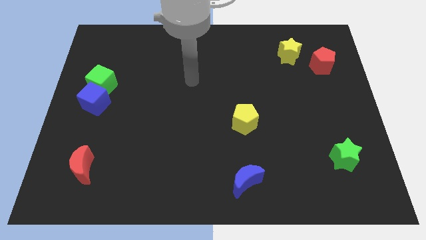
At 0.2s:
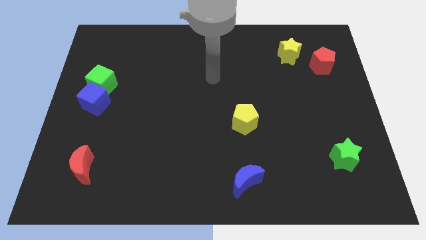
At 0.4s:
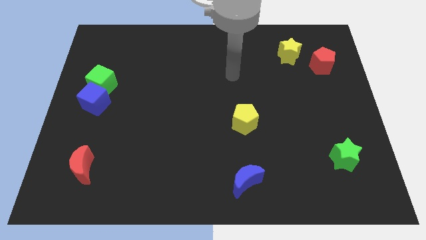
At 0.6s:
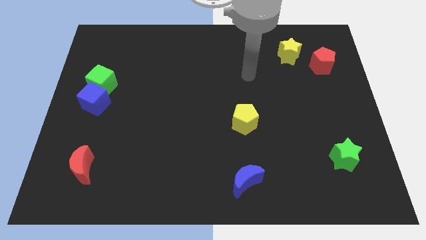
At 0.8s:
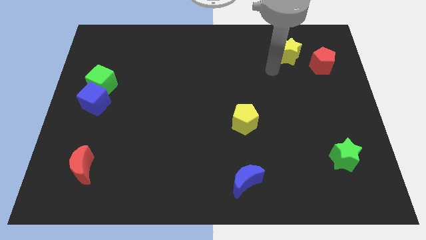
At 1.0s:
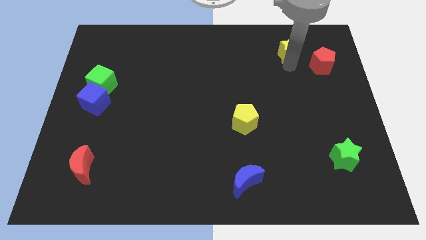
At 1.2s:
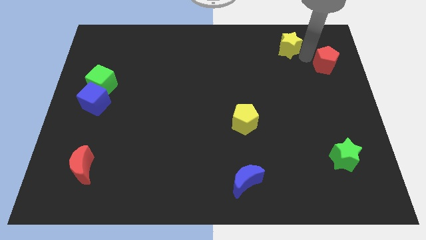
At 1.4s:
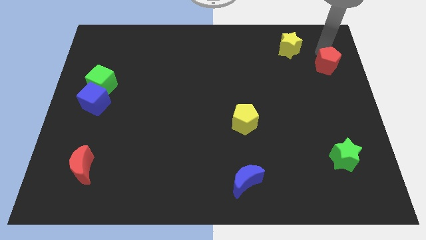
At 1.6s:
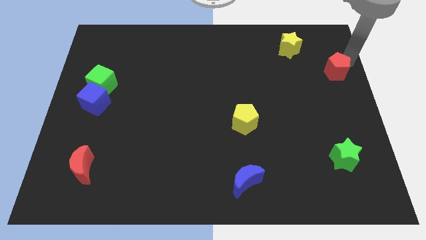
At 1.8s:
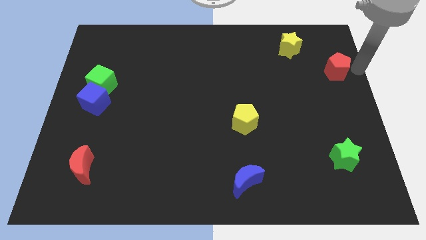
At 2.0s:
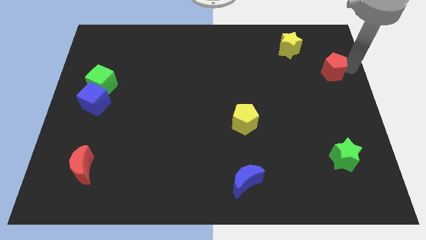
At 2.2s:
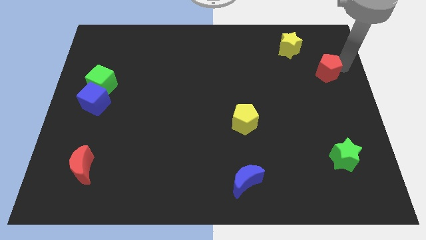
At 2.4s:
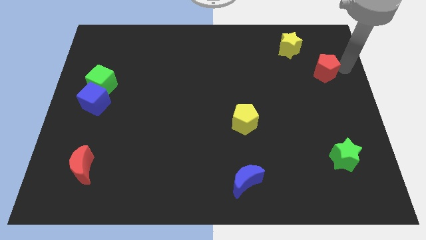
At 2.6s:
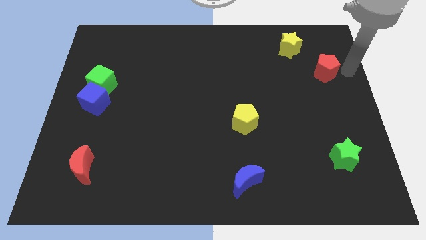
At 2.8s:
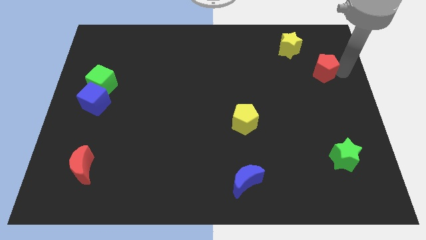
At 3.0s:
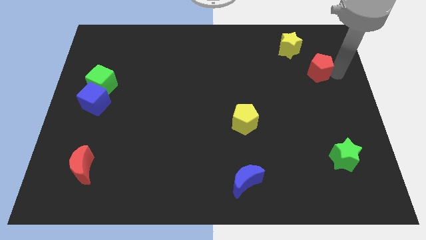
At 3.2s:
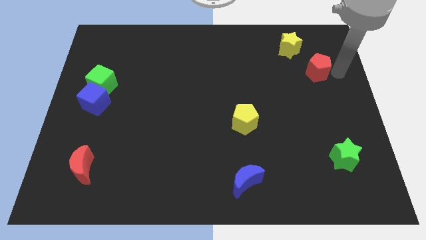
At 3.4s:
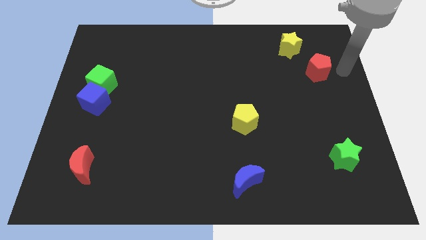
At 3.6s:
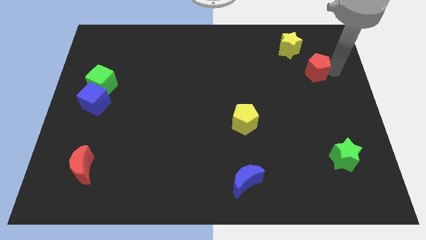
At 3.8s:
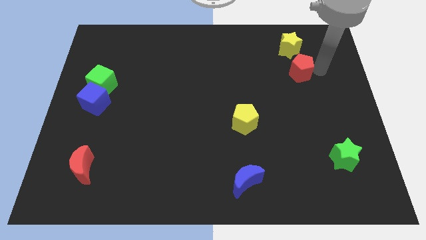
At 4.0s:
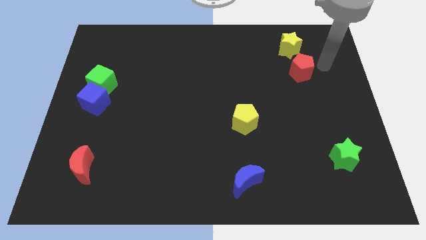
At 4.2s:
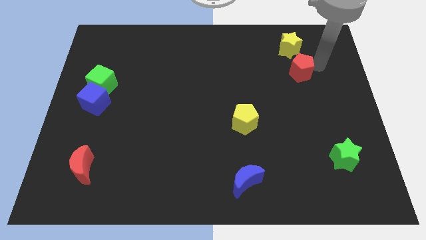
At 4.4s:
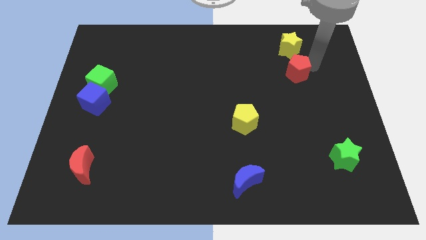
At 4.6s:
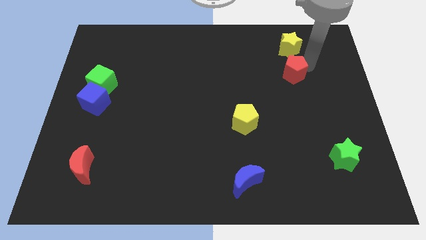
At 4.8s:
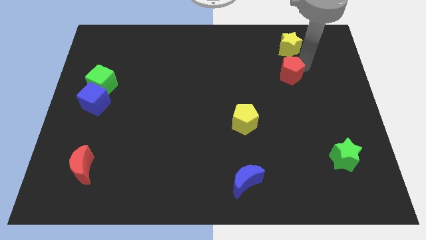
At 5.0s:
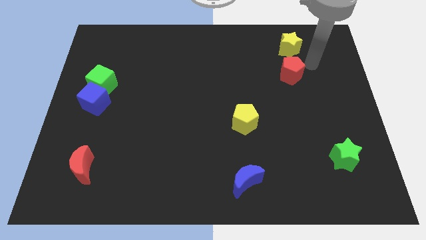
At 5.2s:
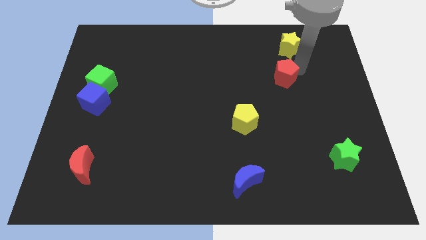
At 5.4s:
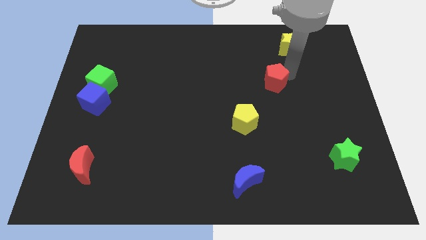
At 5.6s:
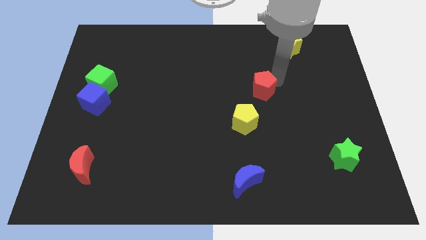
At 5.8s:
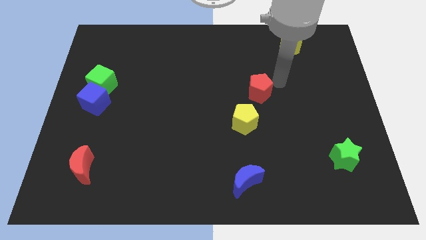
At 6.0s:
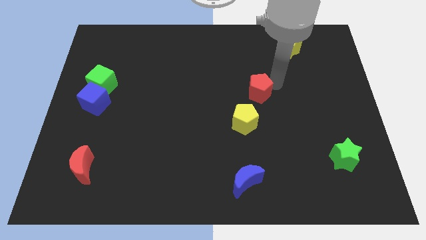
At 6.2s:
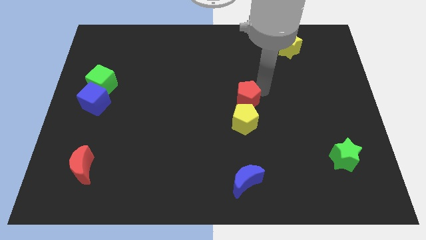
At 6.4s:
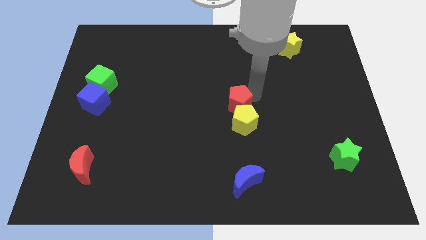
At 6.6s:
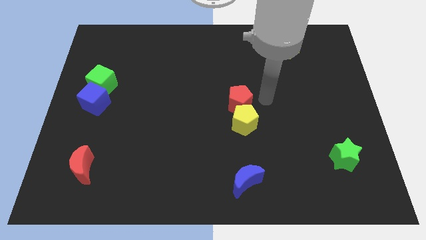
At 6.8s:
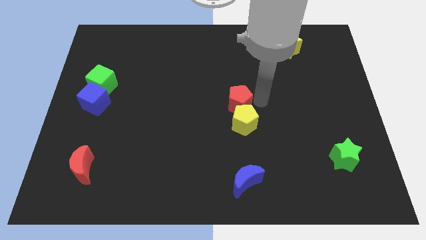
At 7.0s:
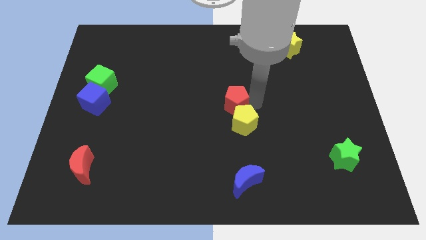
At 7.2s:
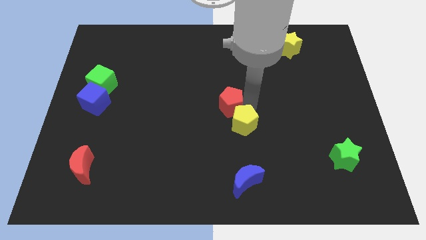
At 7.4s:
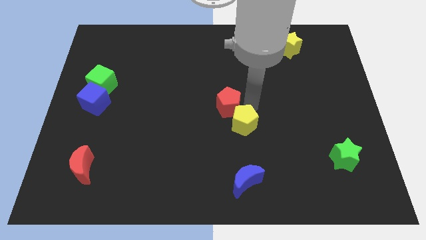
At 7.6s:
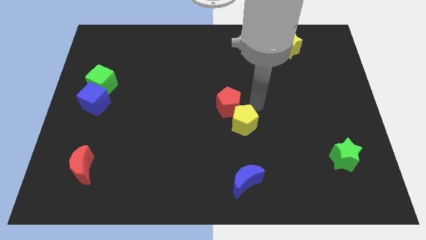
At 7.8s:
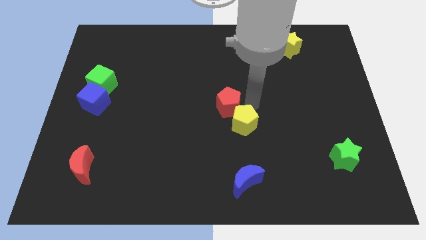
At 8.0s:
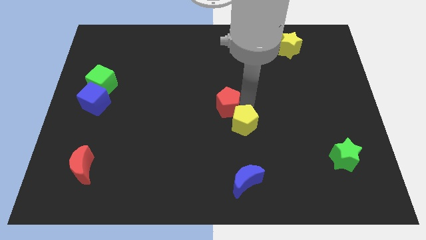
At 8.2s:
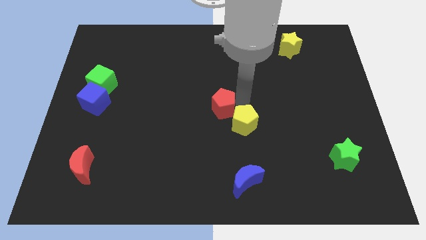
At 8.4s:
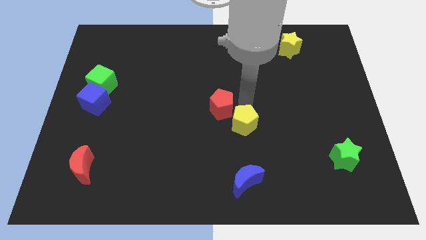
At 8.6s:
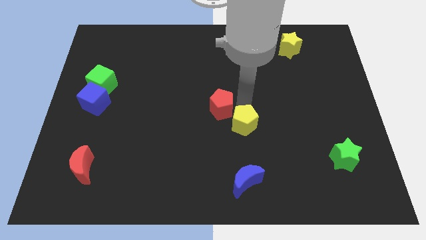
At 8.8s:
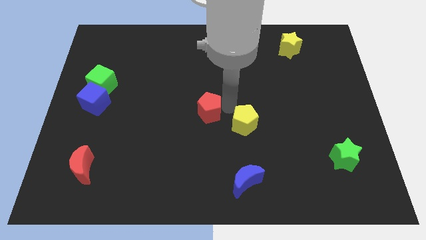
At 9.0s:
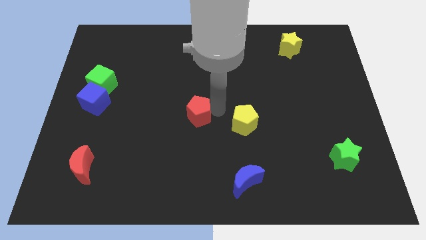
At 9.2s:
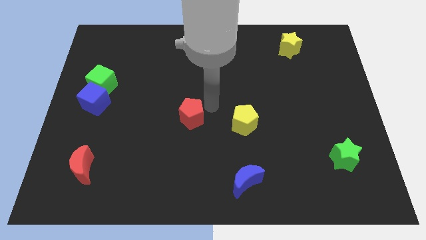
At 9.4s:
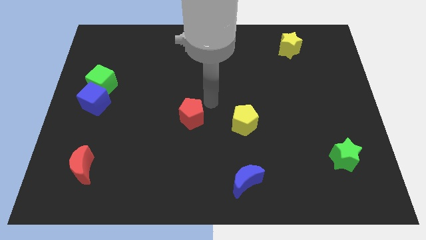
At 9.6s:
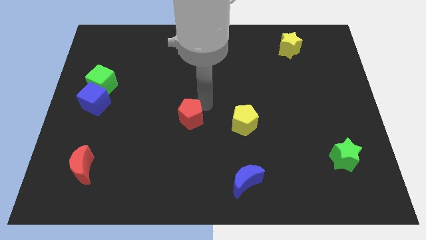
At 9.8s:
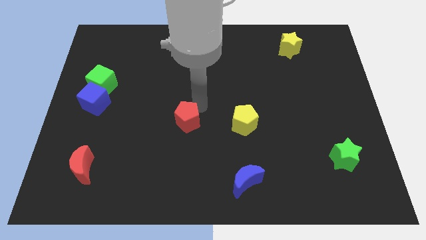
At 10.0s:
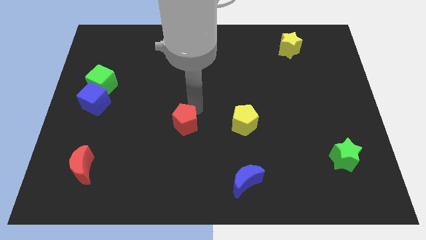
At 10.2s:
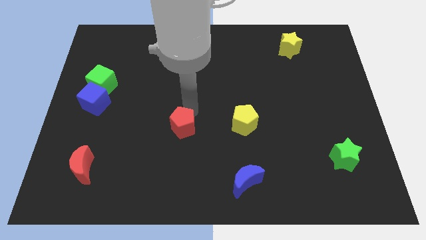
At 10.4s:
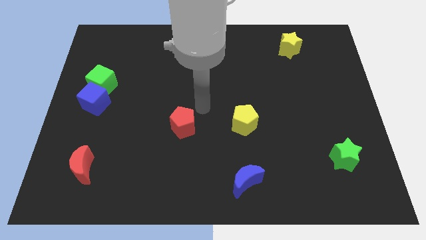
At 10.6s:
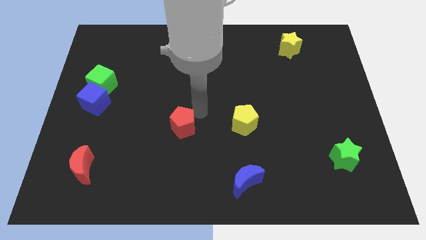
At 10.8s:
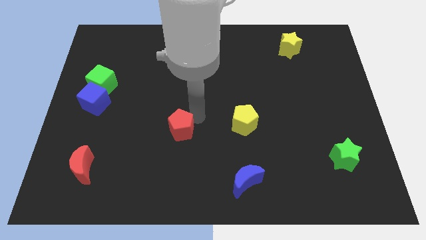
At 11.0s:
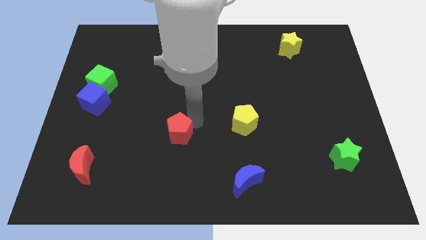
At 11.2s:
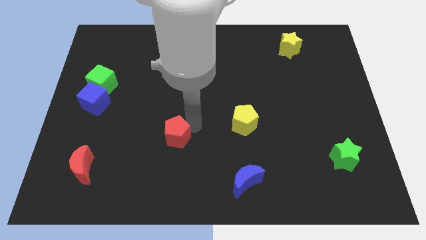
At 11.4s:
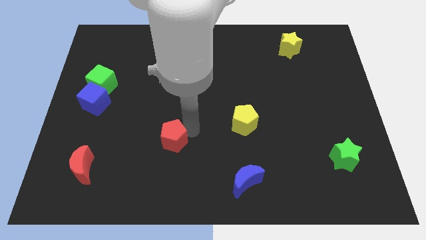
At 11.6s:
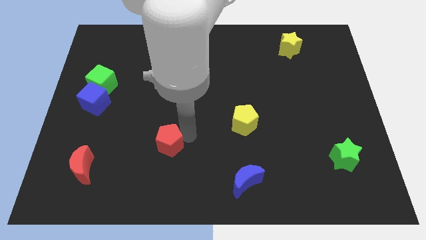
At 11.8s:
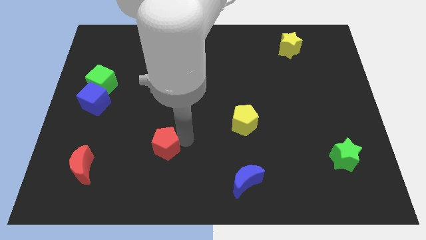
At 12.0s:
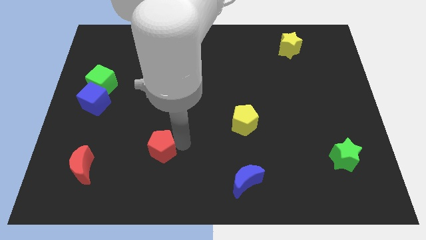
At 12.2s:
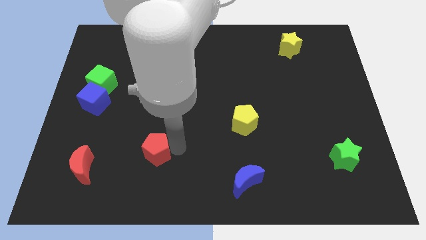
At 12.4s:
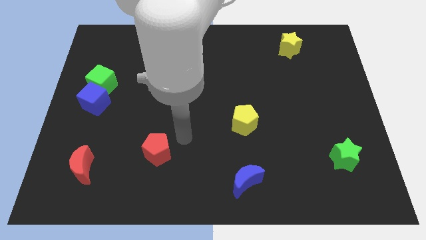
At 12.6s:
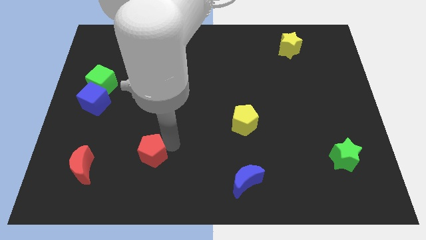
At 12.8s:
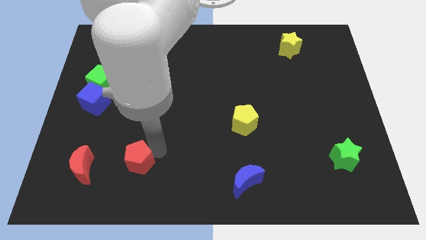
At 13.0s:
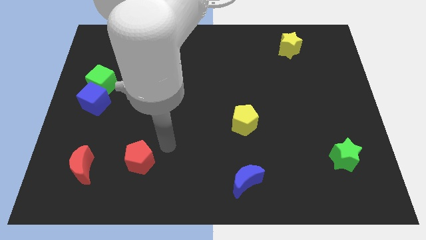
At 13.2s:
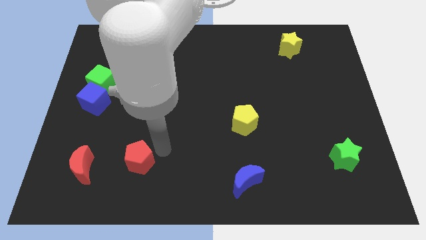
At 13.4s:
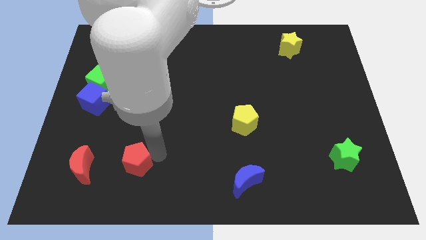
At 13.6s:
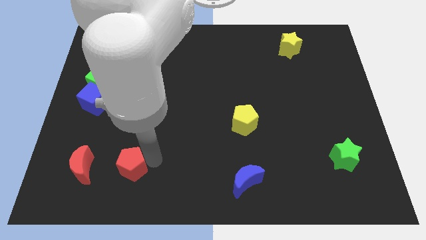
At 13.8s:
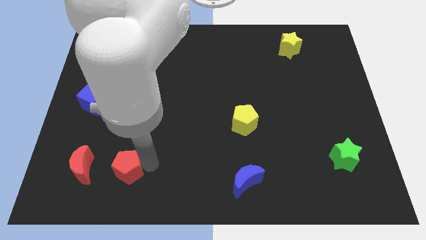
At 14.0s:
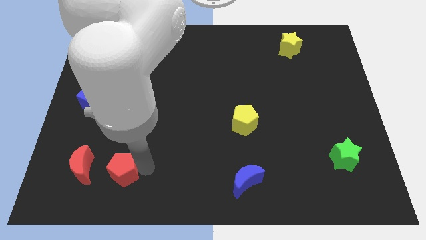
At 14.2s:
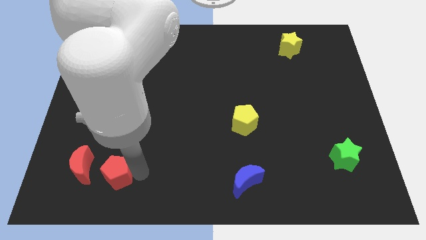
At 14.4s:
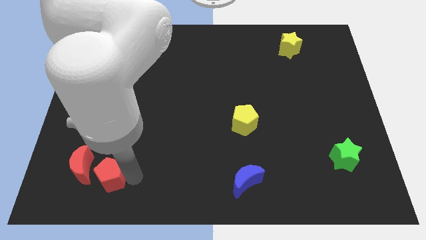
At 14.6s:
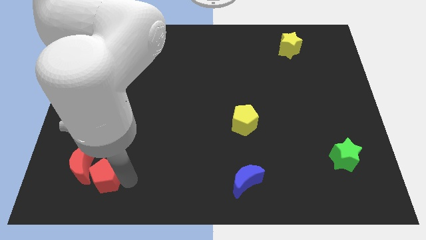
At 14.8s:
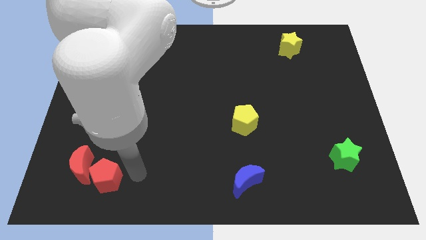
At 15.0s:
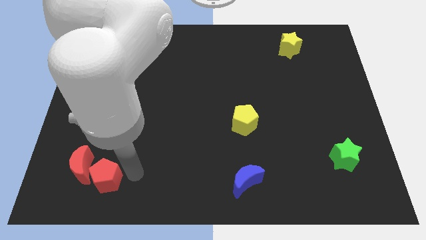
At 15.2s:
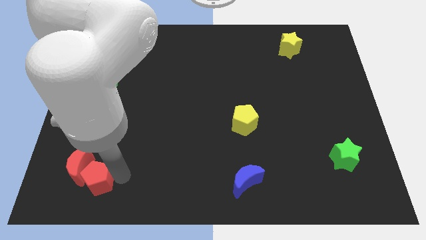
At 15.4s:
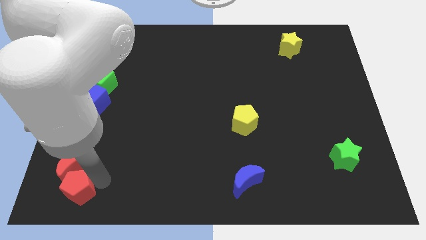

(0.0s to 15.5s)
move the red pentagon to the bottom left of the board
